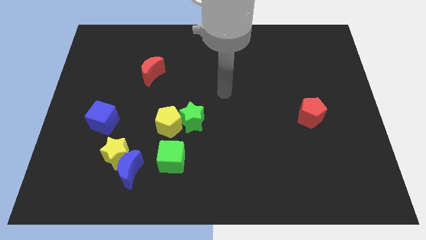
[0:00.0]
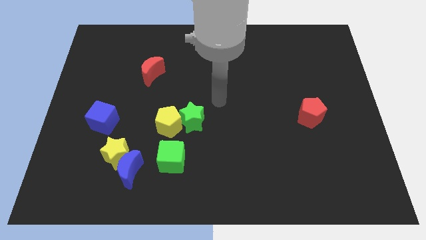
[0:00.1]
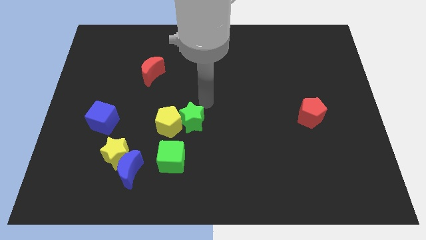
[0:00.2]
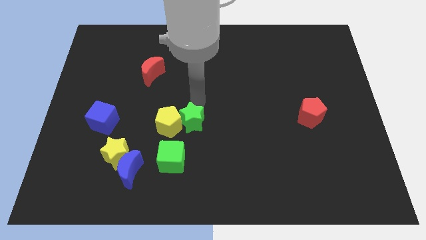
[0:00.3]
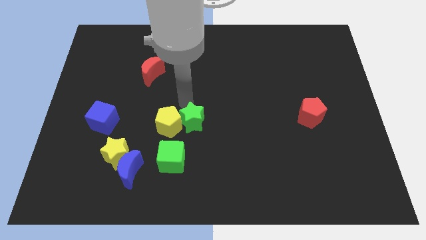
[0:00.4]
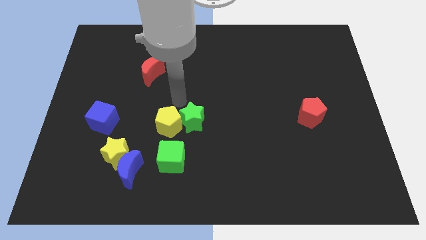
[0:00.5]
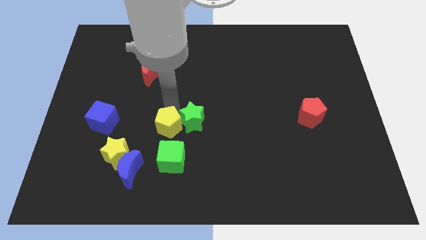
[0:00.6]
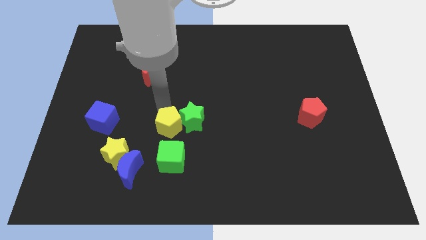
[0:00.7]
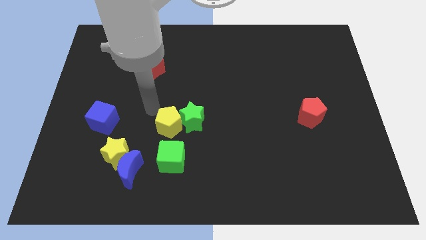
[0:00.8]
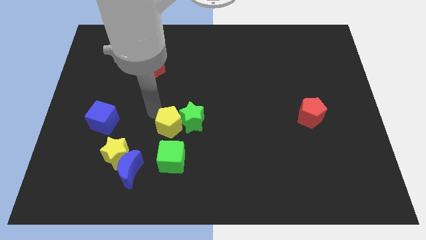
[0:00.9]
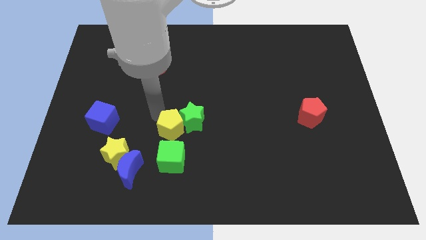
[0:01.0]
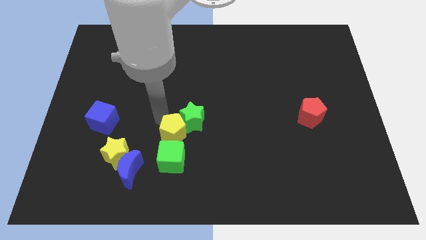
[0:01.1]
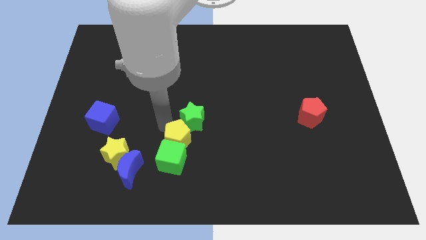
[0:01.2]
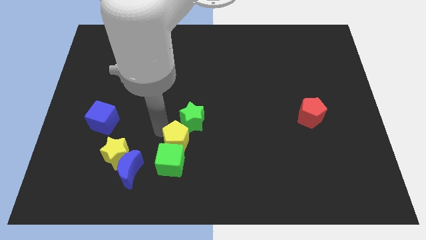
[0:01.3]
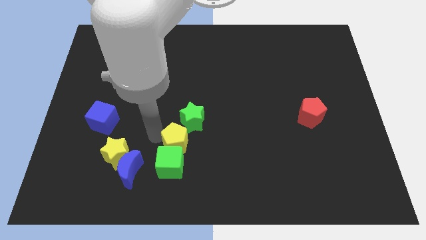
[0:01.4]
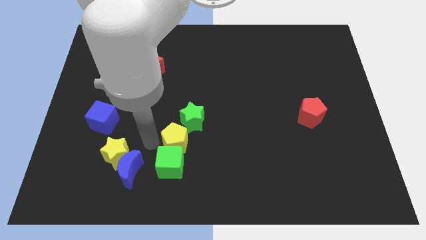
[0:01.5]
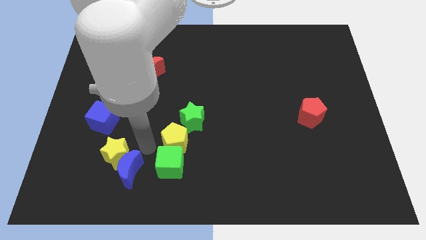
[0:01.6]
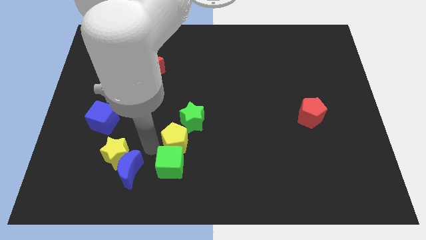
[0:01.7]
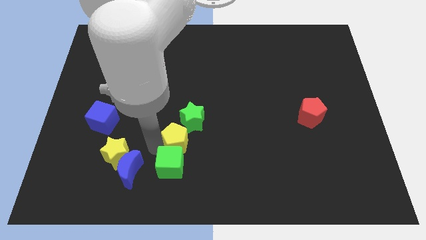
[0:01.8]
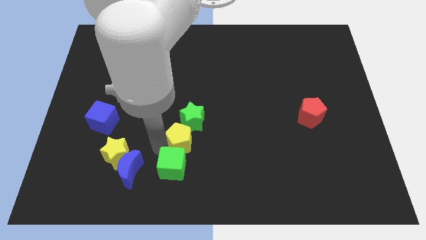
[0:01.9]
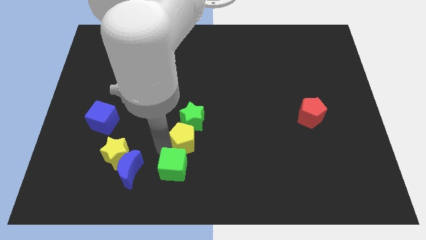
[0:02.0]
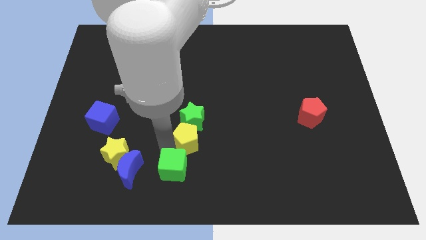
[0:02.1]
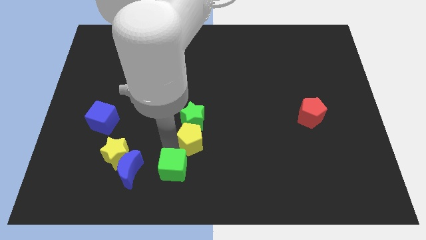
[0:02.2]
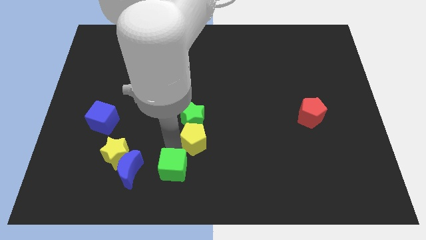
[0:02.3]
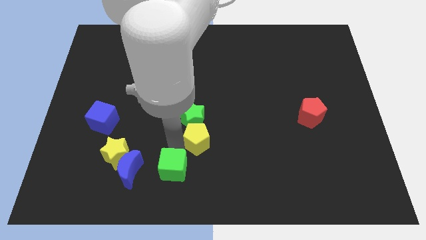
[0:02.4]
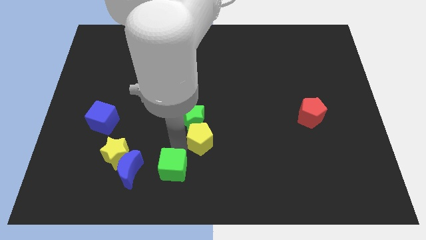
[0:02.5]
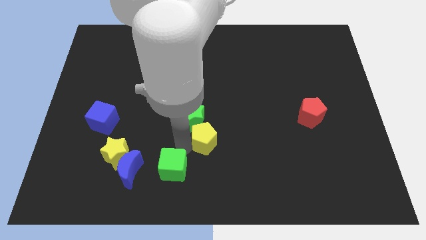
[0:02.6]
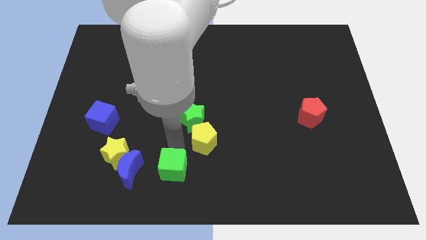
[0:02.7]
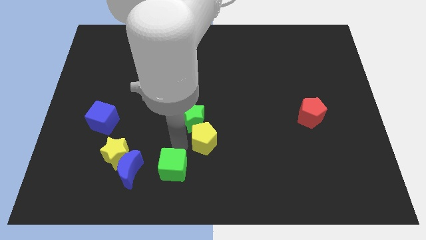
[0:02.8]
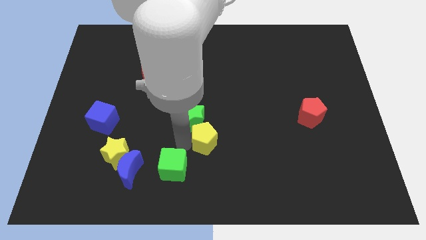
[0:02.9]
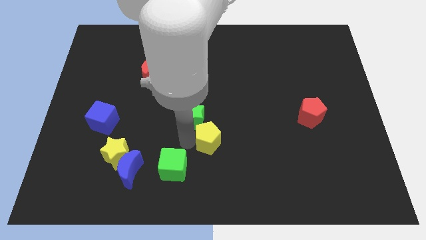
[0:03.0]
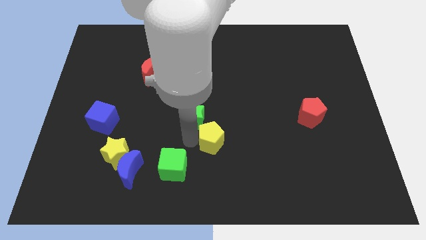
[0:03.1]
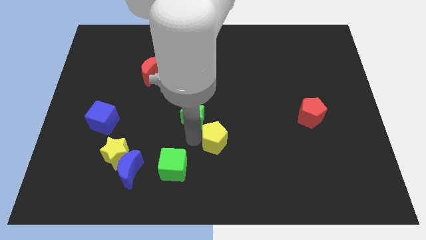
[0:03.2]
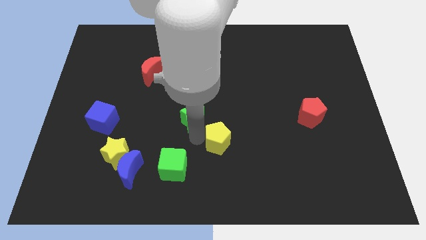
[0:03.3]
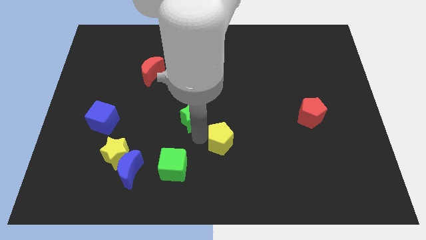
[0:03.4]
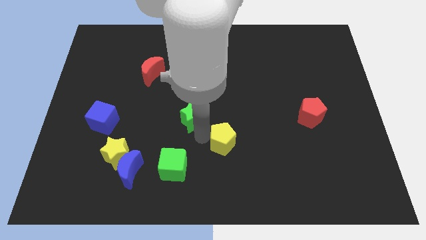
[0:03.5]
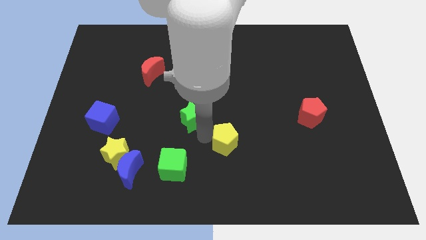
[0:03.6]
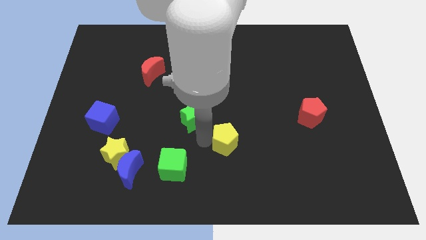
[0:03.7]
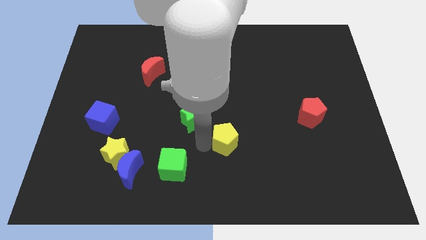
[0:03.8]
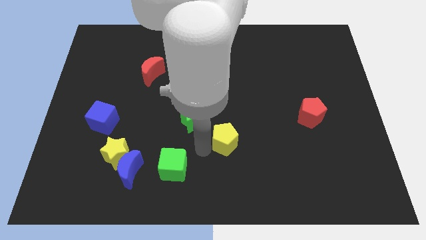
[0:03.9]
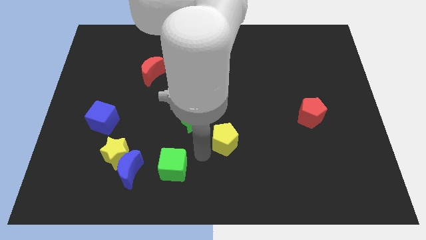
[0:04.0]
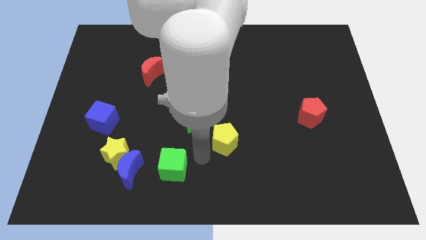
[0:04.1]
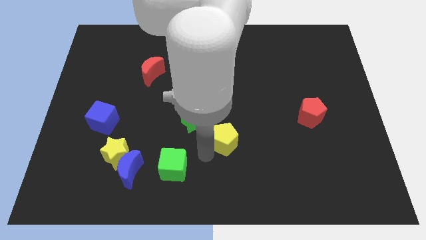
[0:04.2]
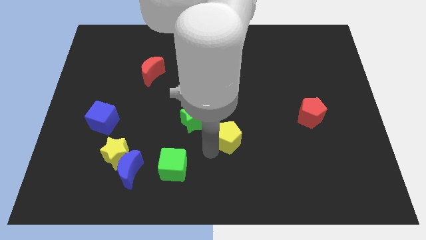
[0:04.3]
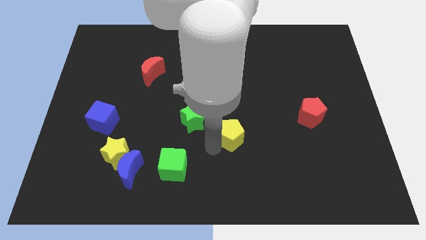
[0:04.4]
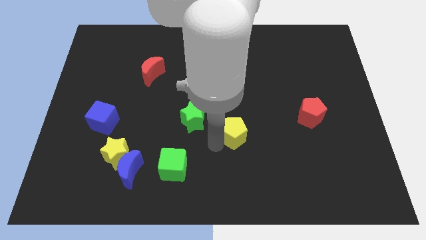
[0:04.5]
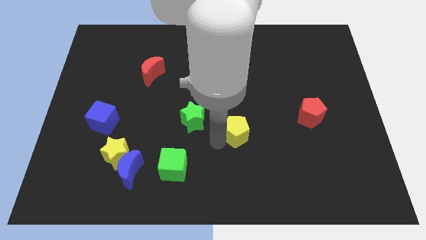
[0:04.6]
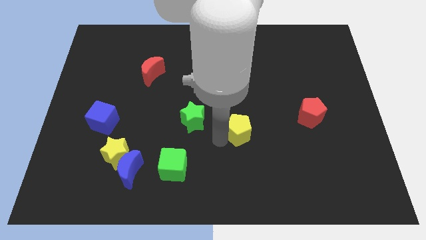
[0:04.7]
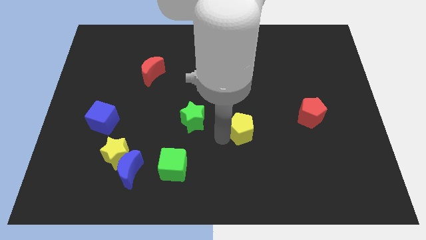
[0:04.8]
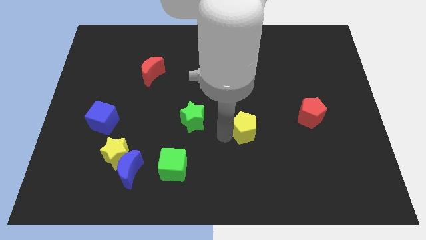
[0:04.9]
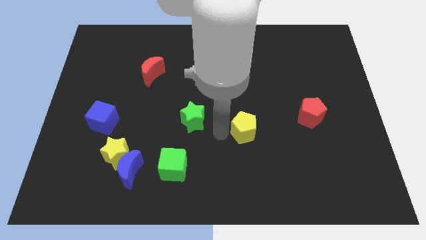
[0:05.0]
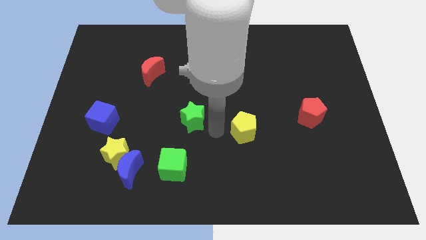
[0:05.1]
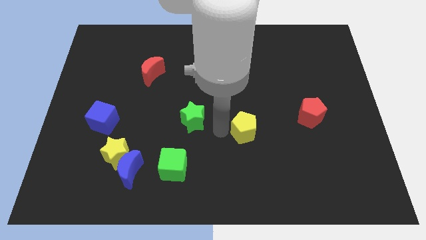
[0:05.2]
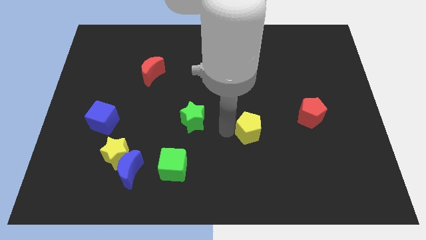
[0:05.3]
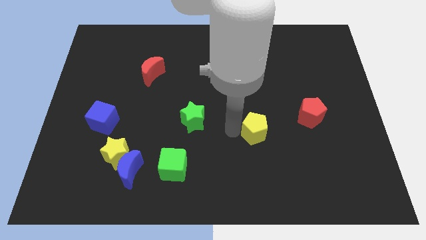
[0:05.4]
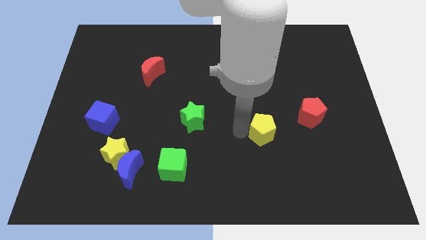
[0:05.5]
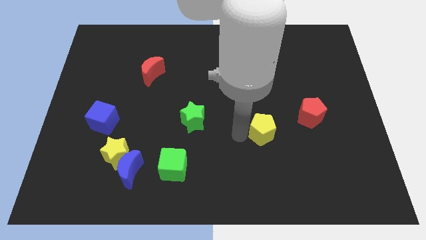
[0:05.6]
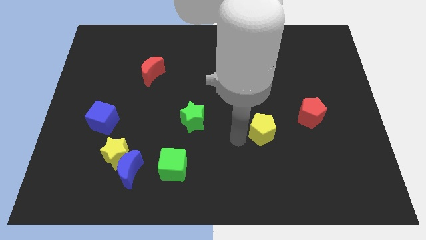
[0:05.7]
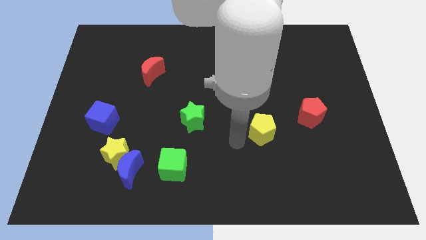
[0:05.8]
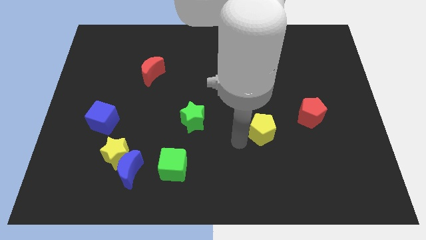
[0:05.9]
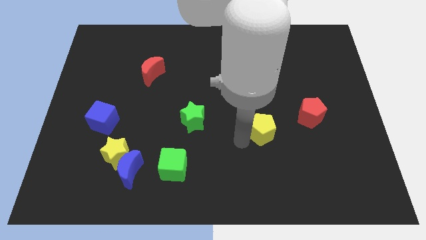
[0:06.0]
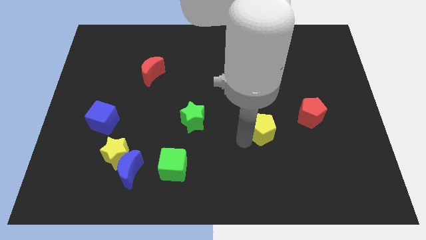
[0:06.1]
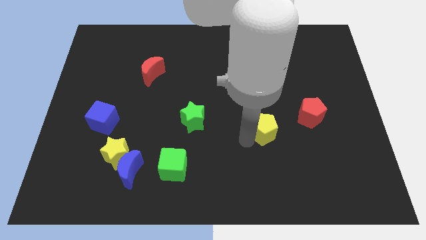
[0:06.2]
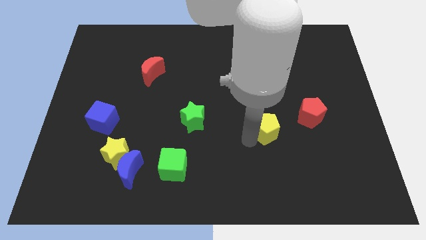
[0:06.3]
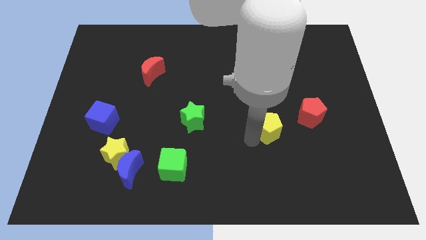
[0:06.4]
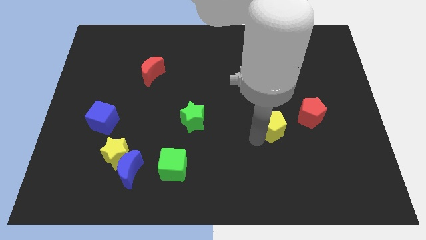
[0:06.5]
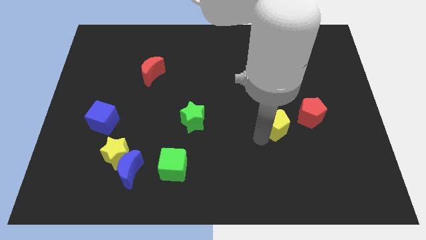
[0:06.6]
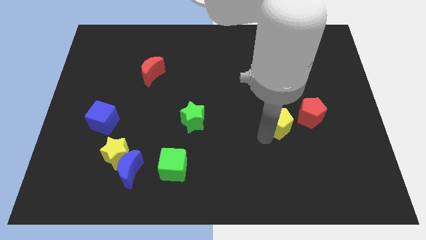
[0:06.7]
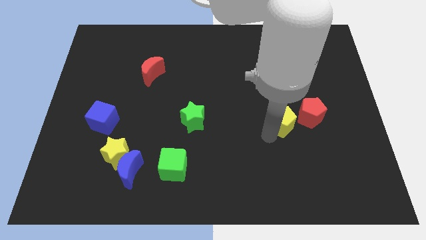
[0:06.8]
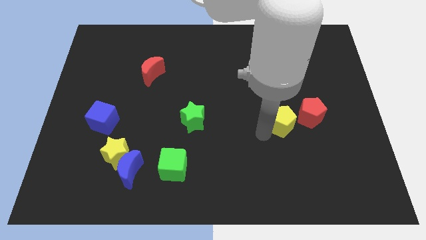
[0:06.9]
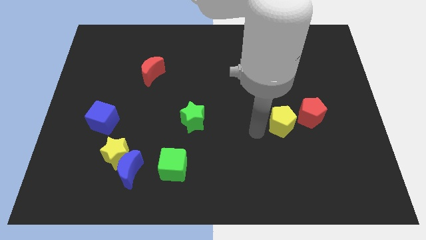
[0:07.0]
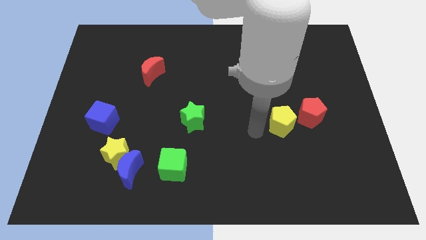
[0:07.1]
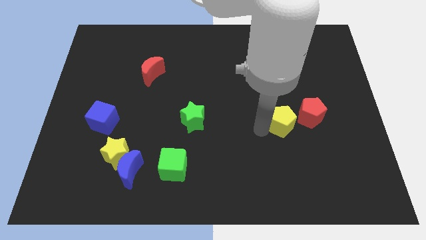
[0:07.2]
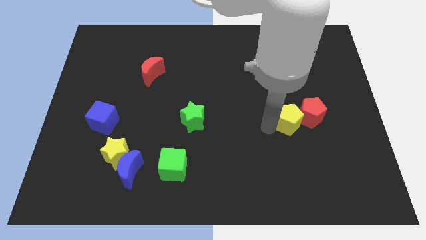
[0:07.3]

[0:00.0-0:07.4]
slide the yellow pentagon close to the red pentagon
